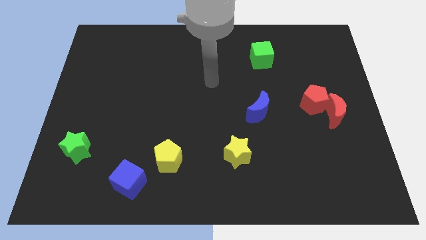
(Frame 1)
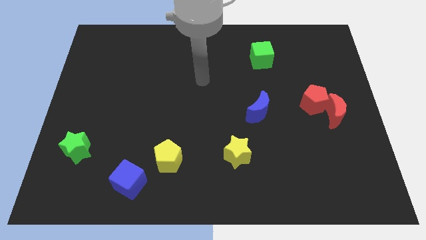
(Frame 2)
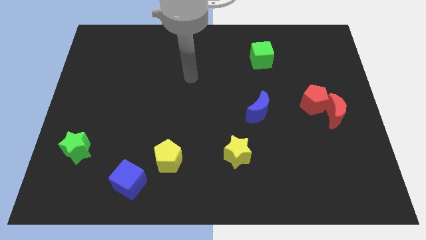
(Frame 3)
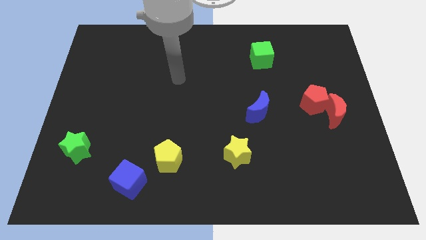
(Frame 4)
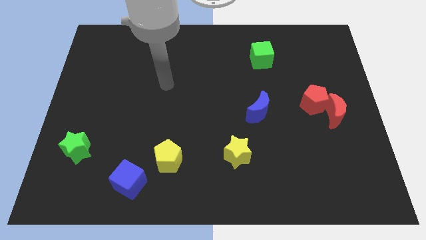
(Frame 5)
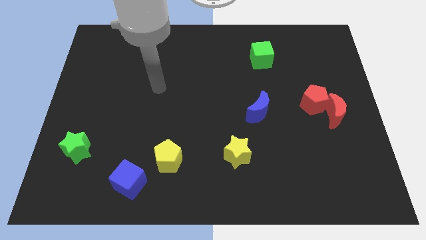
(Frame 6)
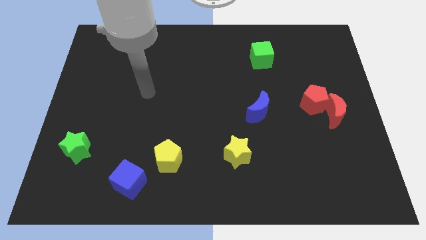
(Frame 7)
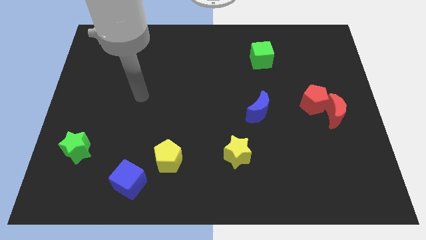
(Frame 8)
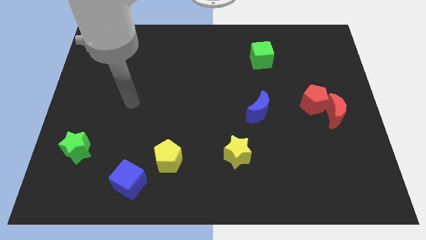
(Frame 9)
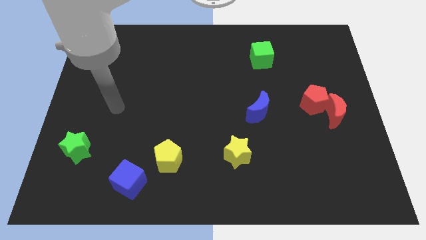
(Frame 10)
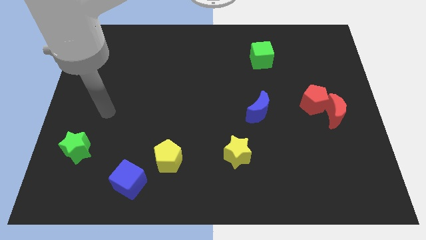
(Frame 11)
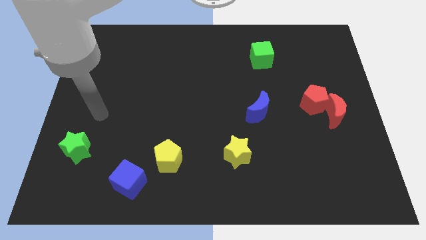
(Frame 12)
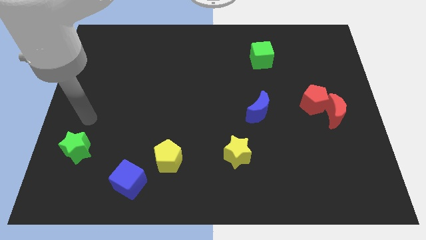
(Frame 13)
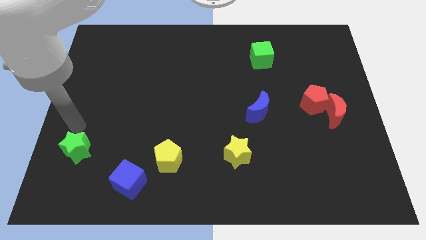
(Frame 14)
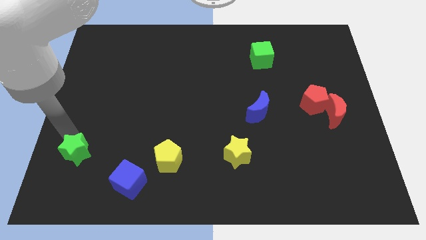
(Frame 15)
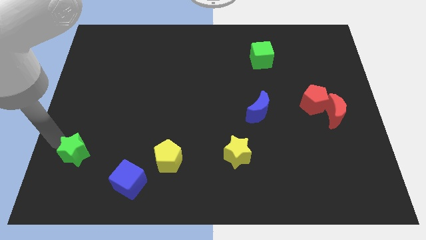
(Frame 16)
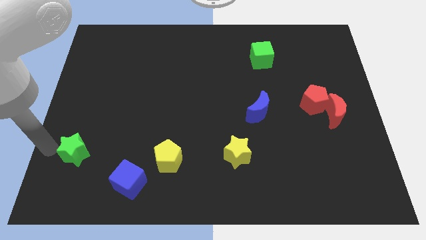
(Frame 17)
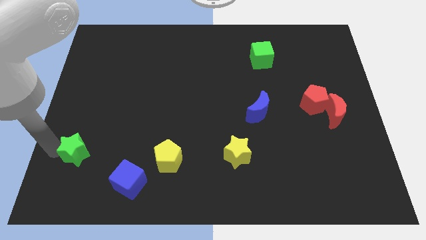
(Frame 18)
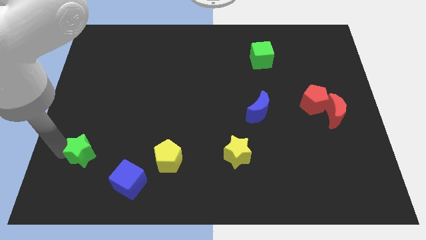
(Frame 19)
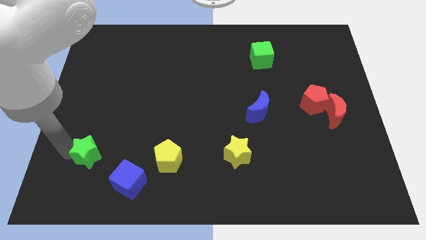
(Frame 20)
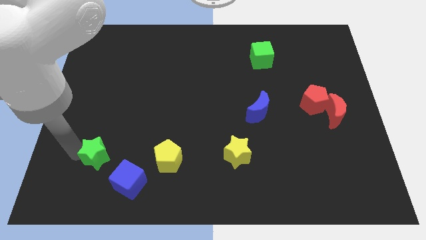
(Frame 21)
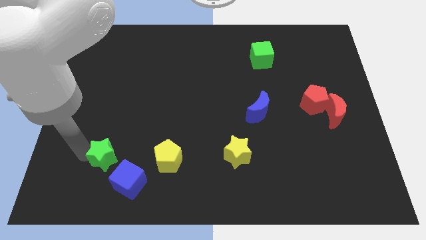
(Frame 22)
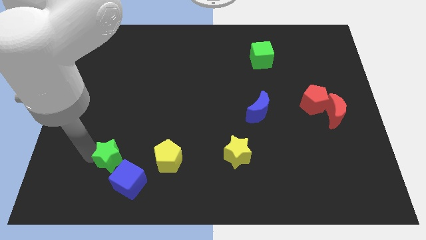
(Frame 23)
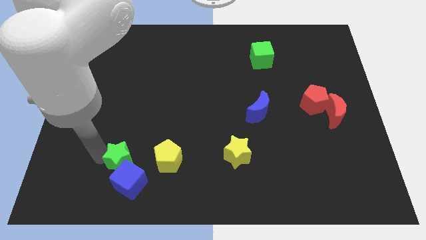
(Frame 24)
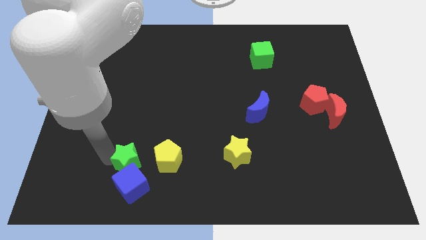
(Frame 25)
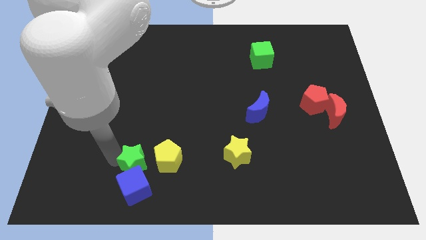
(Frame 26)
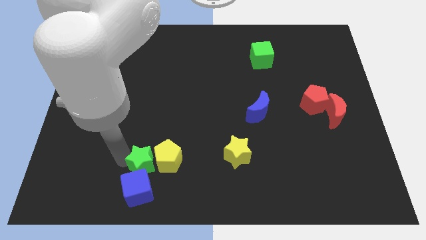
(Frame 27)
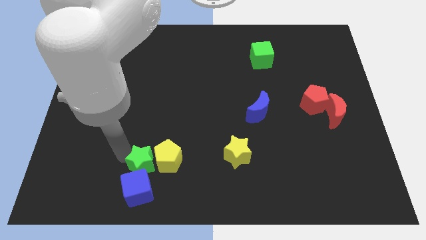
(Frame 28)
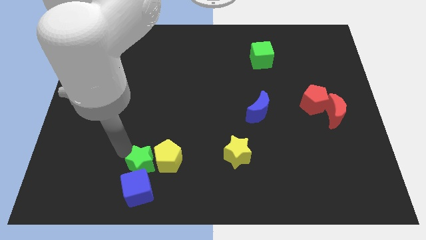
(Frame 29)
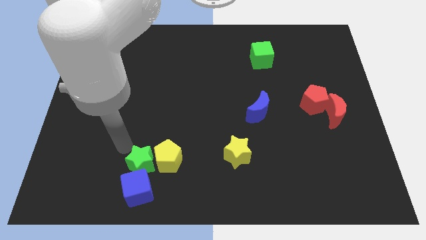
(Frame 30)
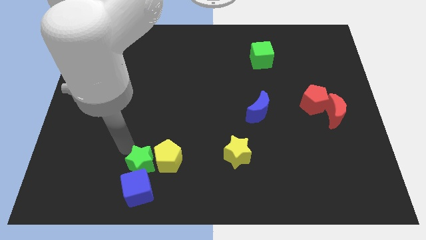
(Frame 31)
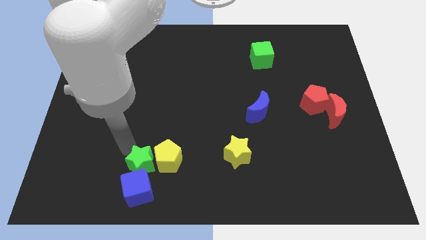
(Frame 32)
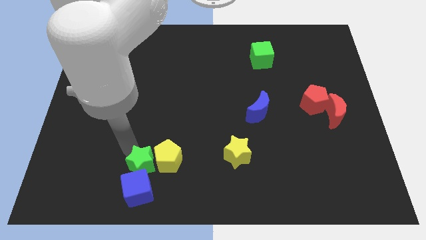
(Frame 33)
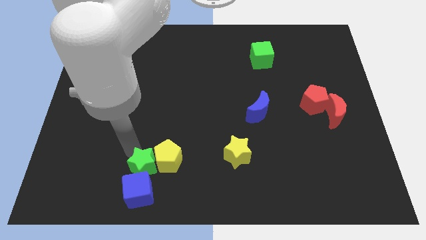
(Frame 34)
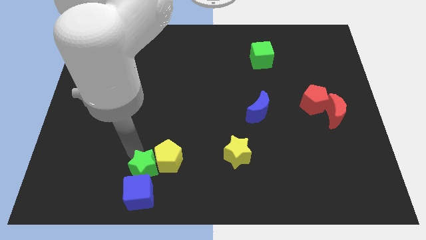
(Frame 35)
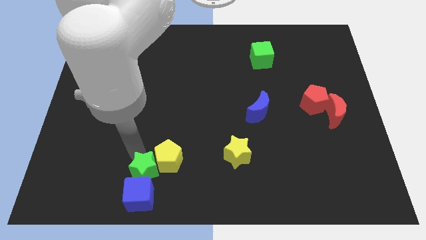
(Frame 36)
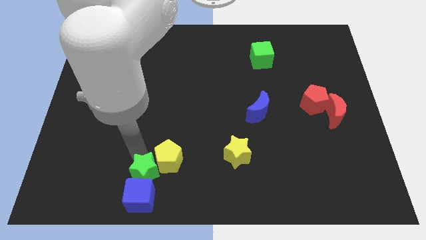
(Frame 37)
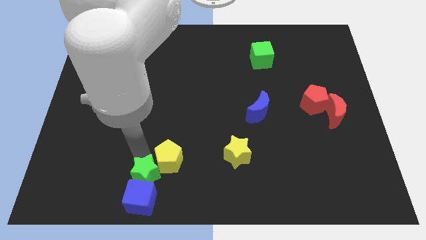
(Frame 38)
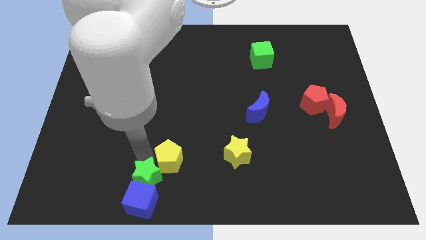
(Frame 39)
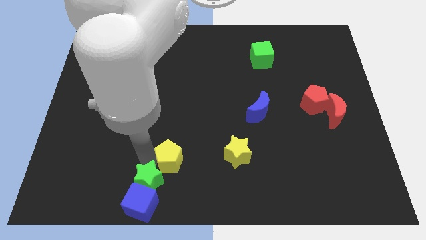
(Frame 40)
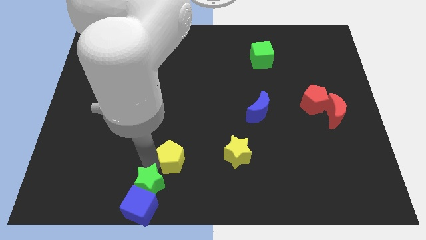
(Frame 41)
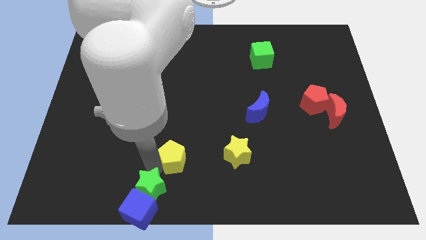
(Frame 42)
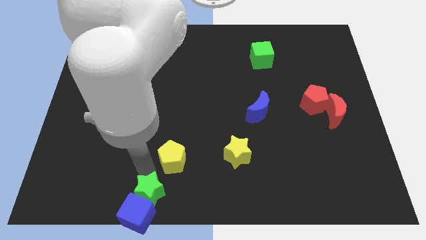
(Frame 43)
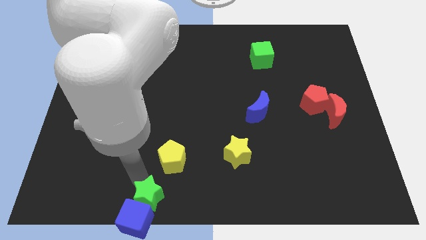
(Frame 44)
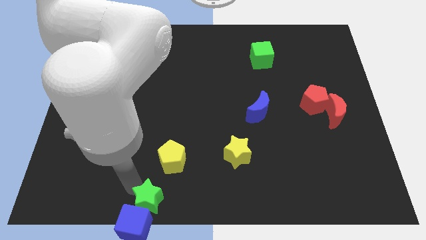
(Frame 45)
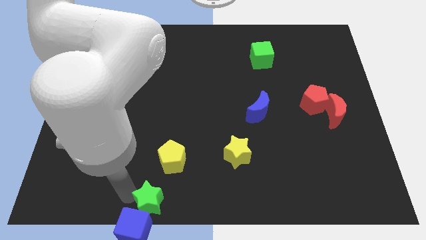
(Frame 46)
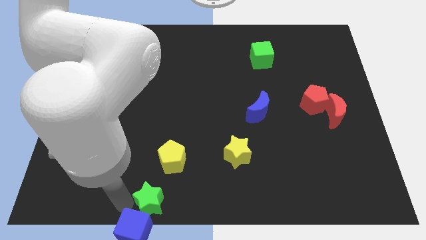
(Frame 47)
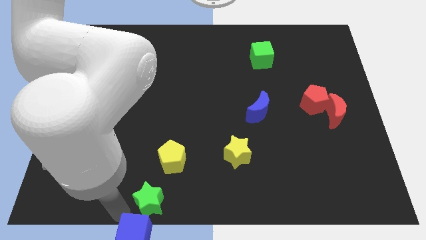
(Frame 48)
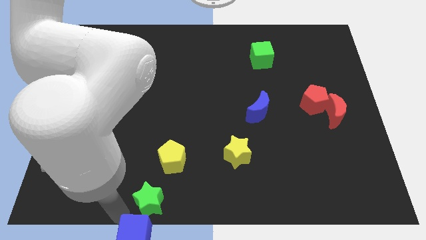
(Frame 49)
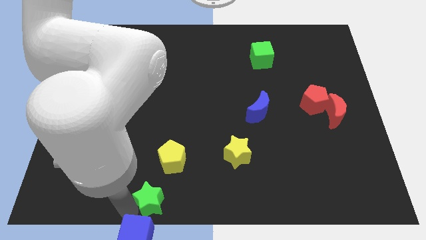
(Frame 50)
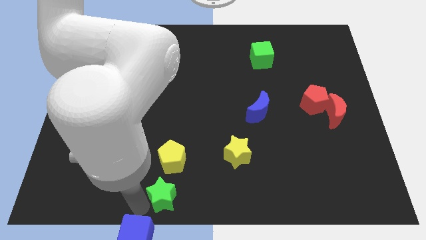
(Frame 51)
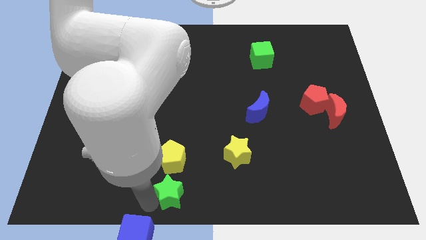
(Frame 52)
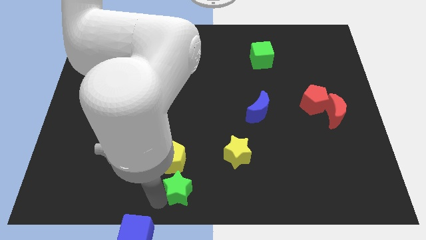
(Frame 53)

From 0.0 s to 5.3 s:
push the green star to the bottom right of the yellow pentagon

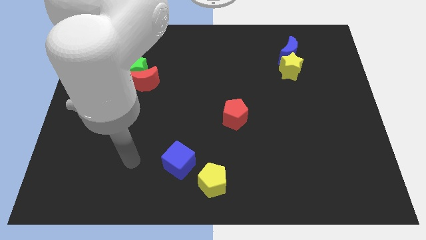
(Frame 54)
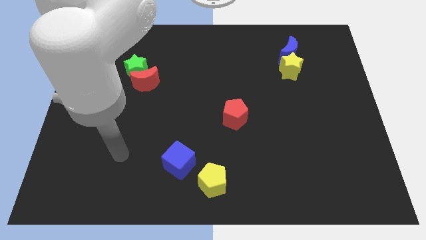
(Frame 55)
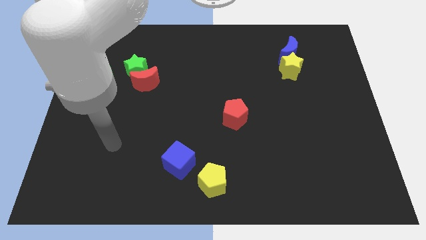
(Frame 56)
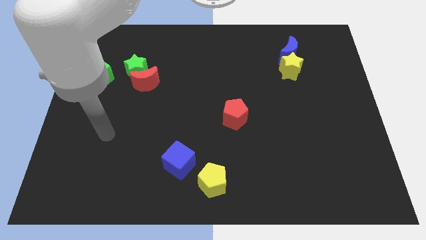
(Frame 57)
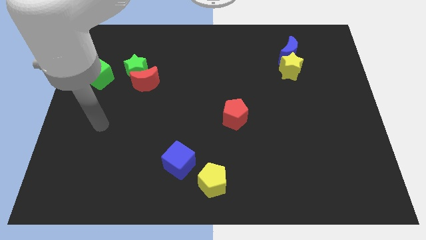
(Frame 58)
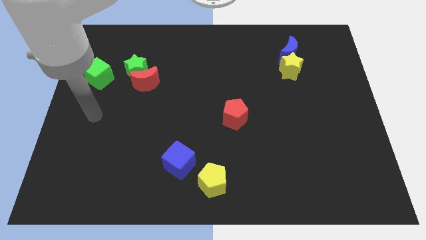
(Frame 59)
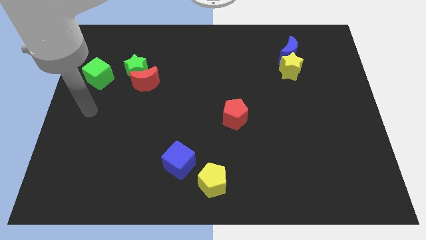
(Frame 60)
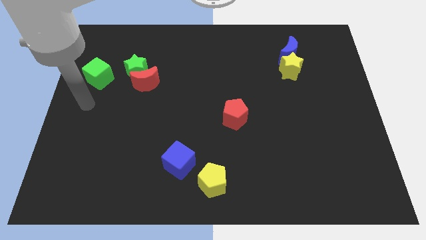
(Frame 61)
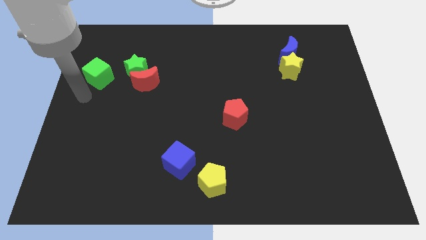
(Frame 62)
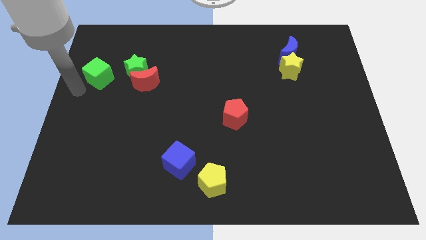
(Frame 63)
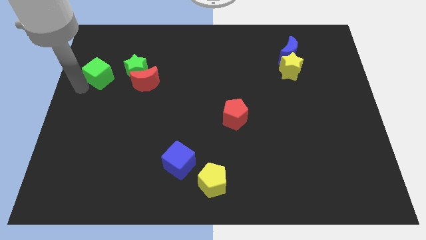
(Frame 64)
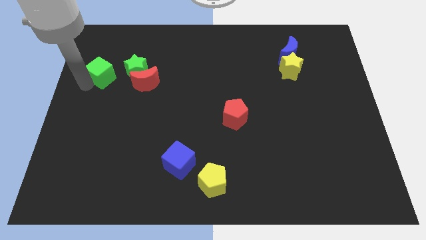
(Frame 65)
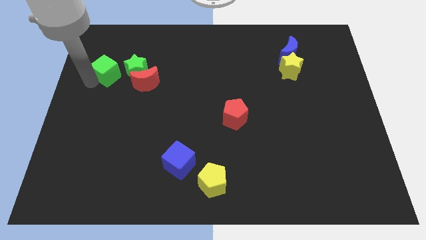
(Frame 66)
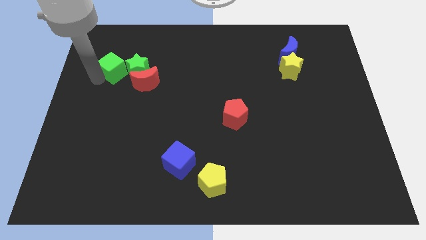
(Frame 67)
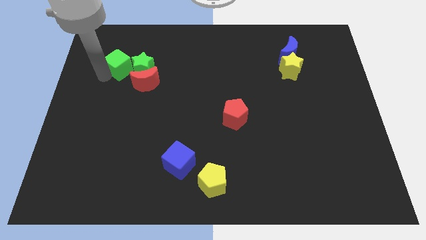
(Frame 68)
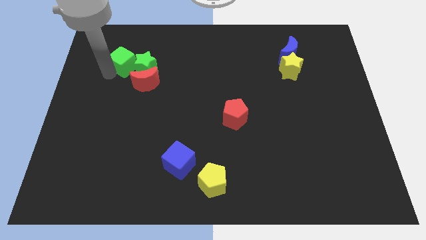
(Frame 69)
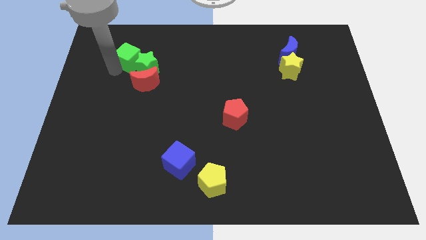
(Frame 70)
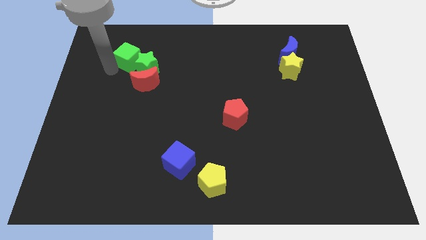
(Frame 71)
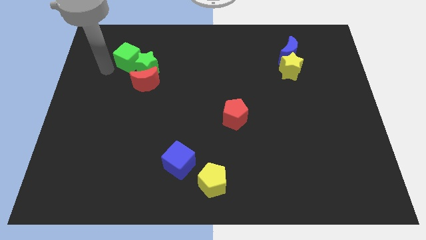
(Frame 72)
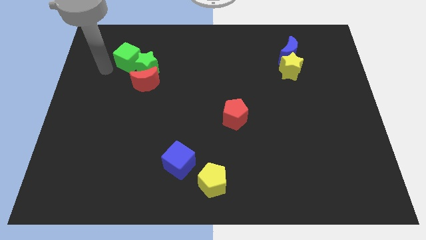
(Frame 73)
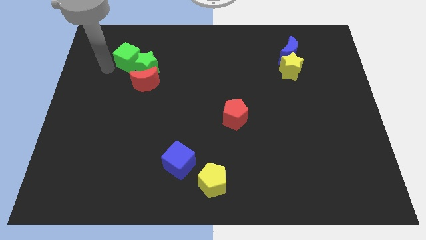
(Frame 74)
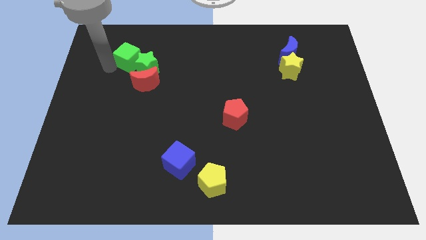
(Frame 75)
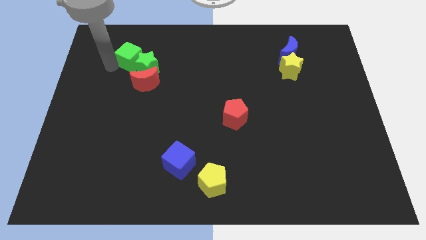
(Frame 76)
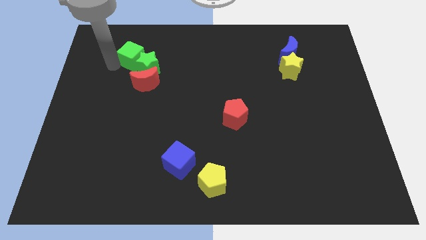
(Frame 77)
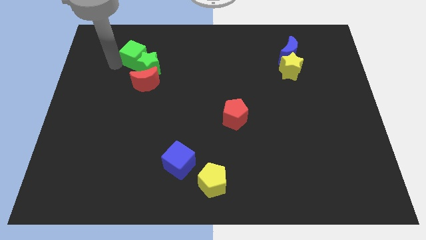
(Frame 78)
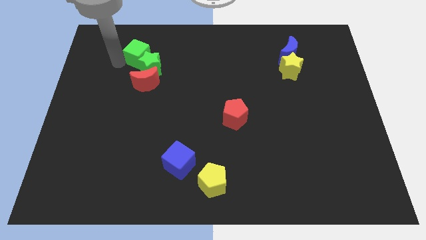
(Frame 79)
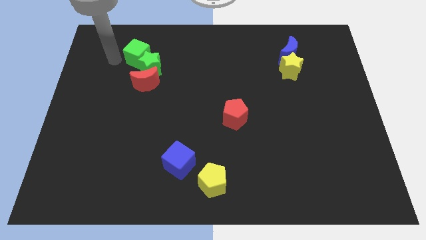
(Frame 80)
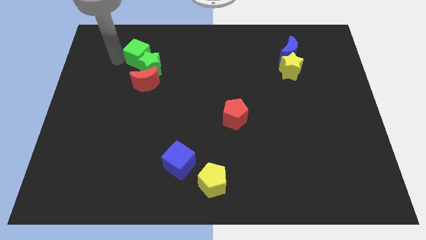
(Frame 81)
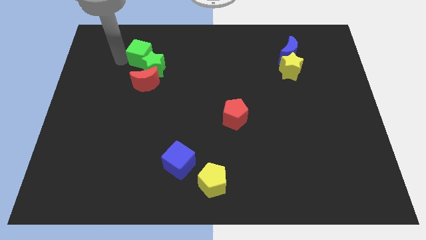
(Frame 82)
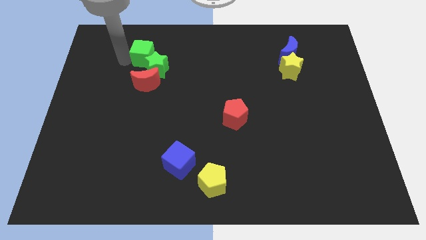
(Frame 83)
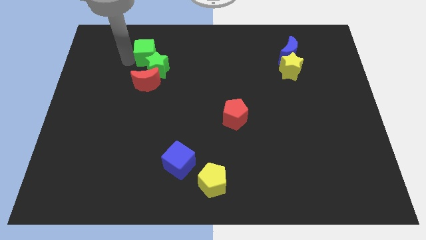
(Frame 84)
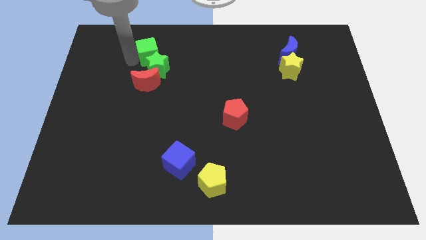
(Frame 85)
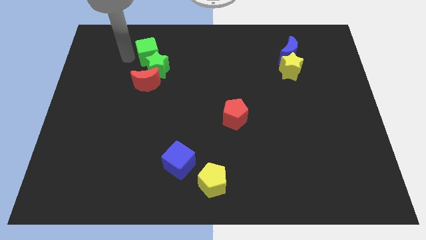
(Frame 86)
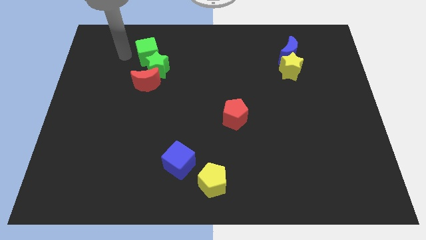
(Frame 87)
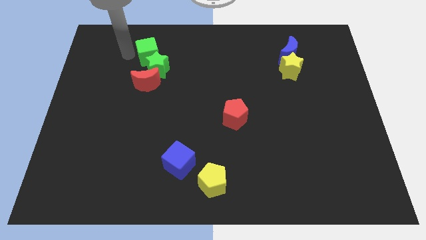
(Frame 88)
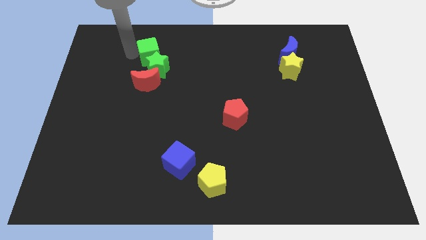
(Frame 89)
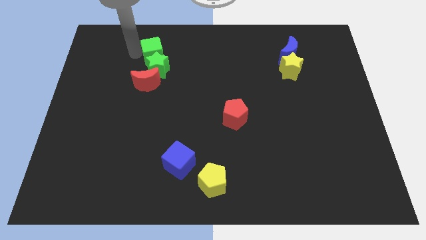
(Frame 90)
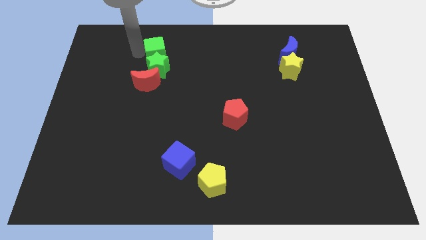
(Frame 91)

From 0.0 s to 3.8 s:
put the green cube to the top right of the green star
